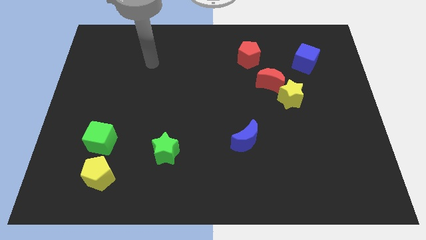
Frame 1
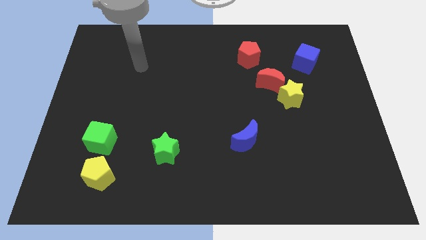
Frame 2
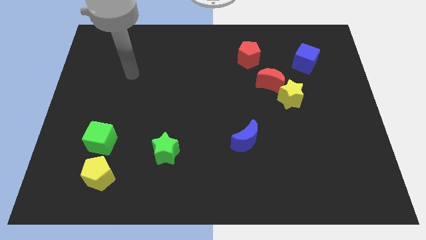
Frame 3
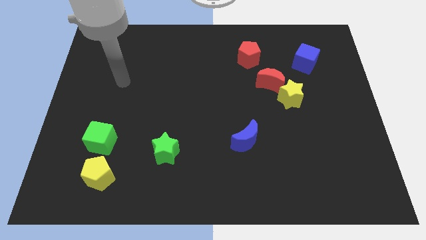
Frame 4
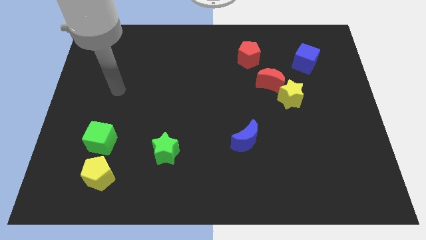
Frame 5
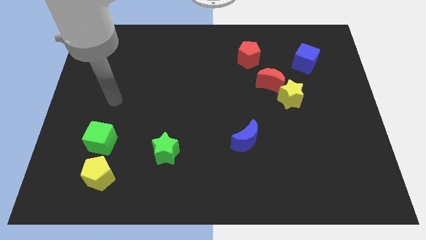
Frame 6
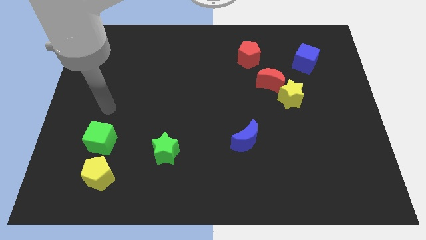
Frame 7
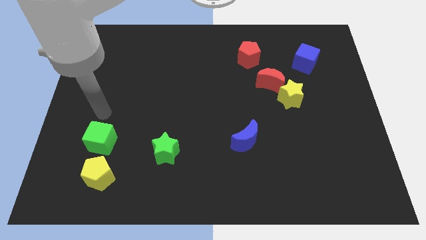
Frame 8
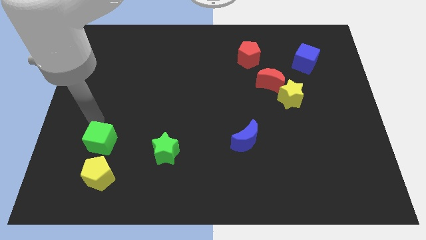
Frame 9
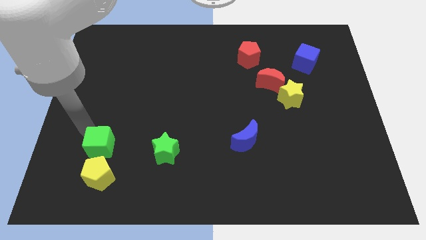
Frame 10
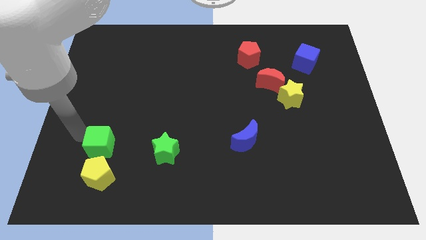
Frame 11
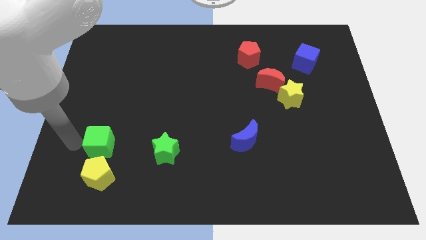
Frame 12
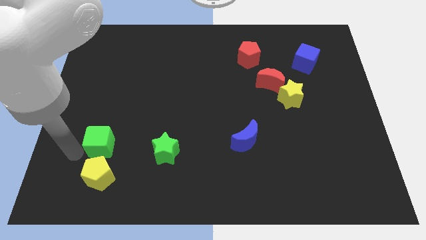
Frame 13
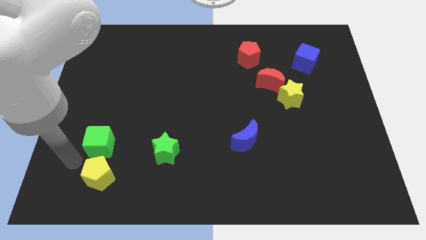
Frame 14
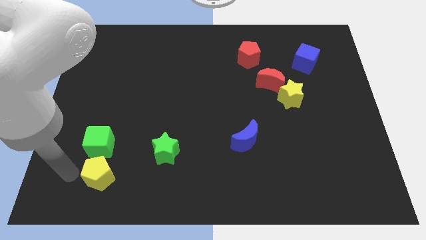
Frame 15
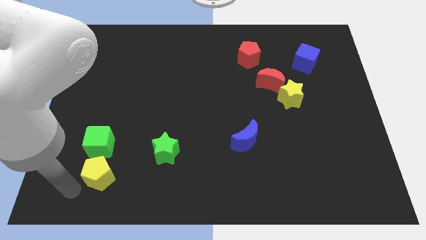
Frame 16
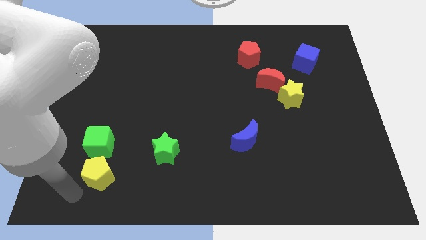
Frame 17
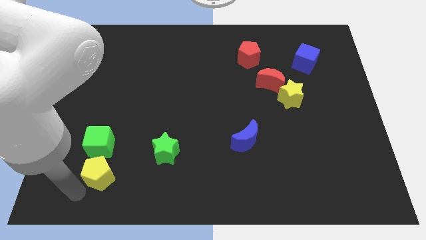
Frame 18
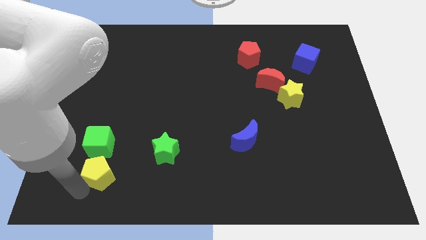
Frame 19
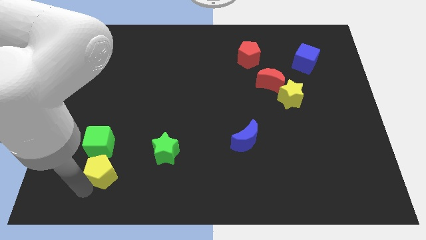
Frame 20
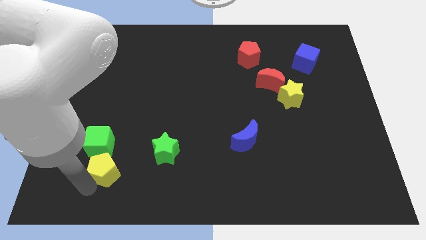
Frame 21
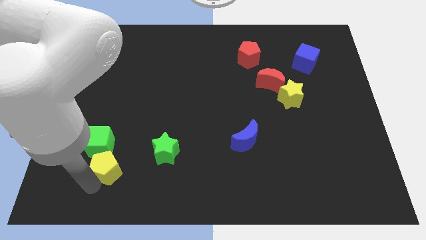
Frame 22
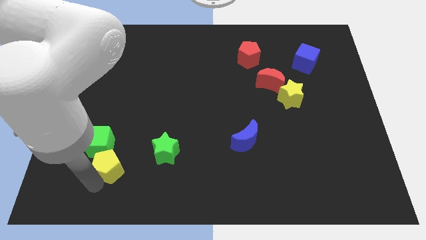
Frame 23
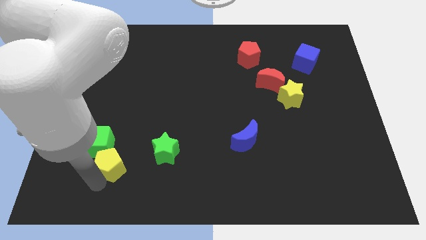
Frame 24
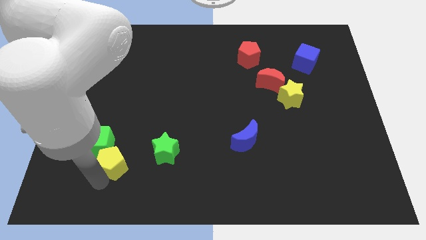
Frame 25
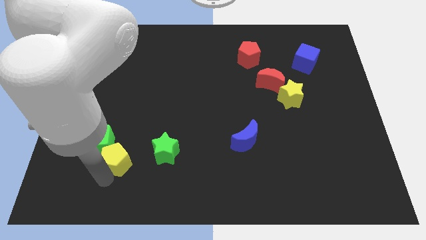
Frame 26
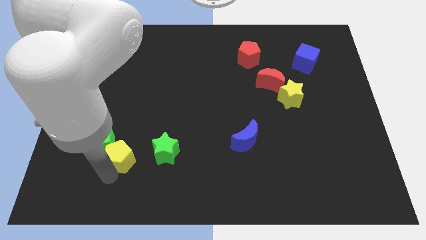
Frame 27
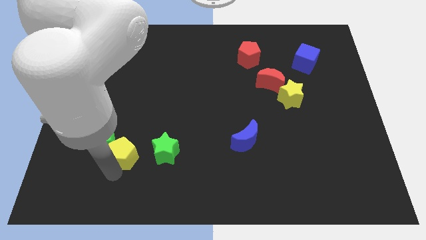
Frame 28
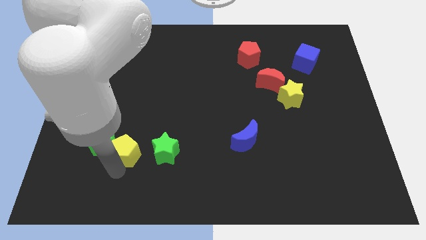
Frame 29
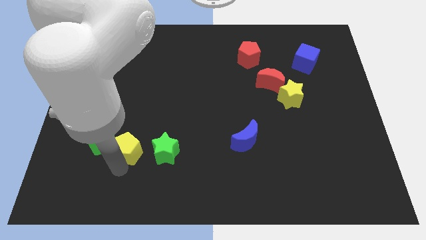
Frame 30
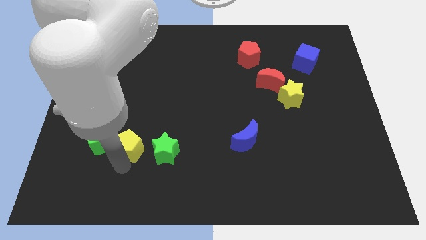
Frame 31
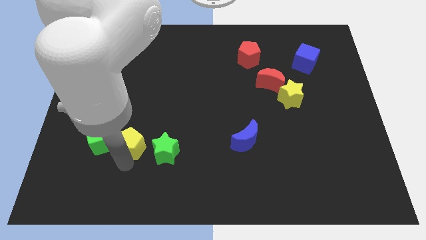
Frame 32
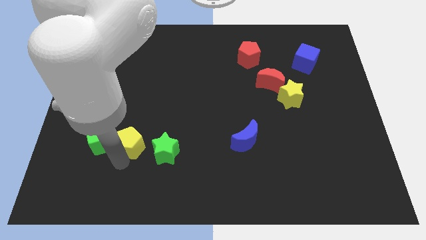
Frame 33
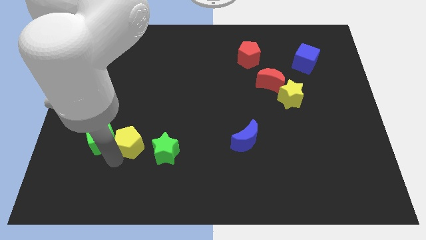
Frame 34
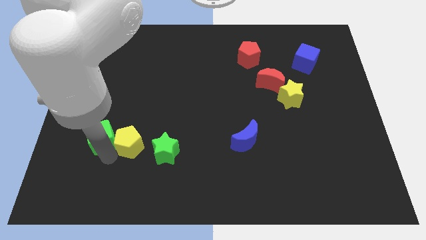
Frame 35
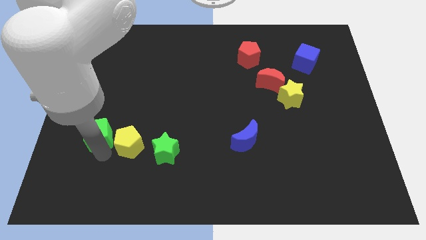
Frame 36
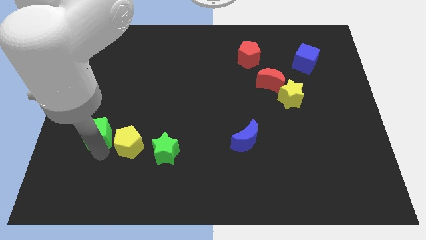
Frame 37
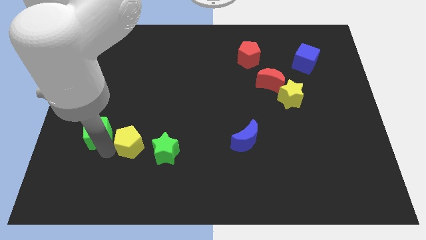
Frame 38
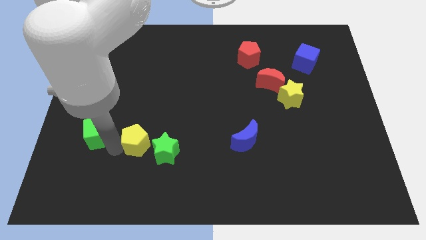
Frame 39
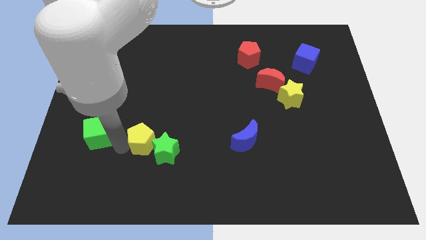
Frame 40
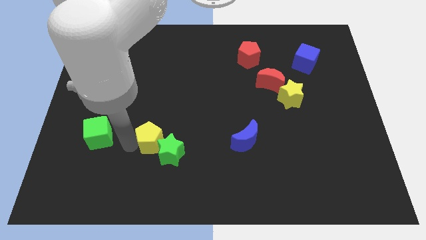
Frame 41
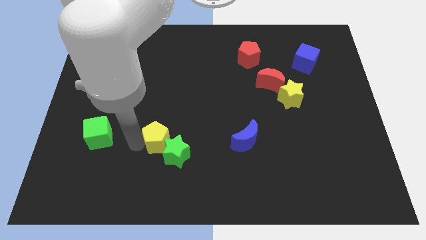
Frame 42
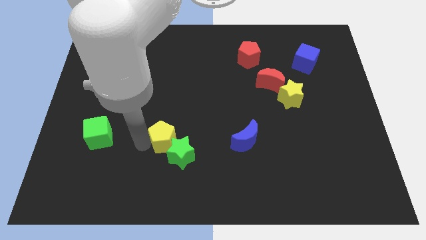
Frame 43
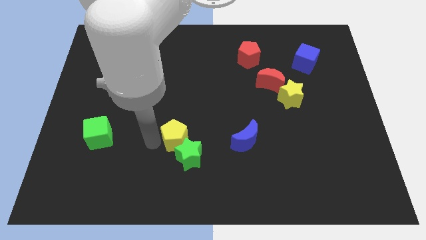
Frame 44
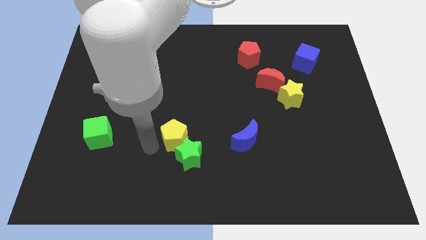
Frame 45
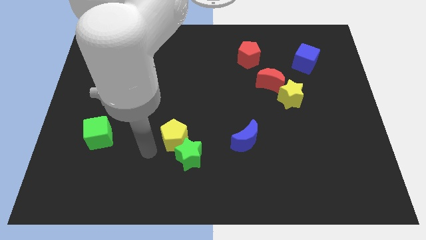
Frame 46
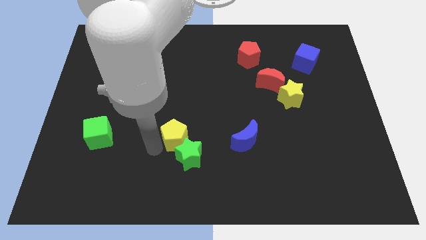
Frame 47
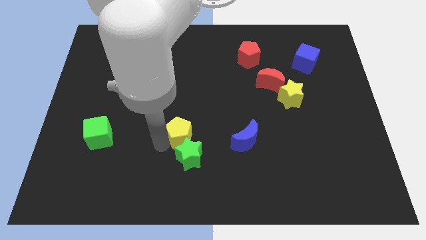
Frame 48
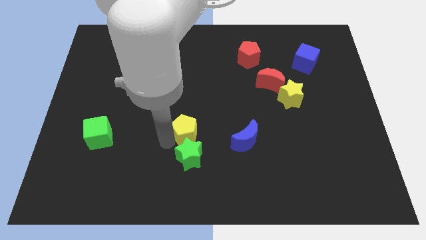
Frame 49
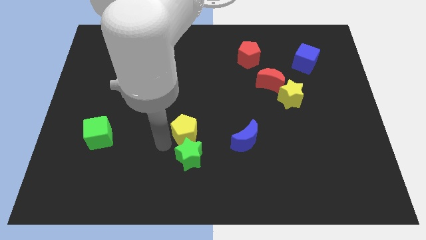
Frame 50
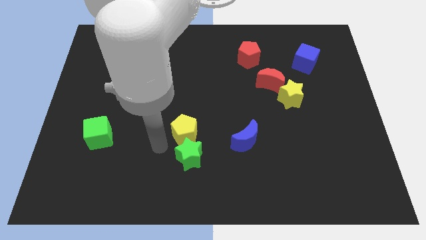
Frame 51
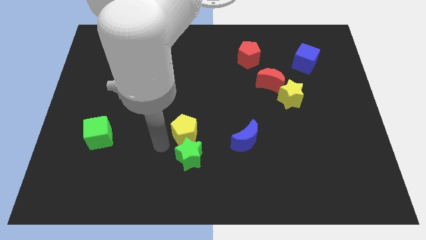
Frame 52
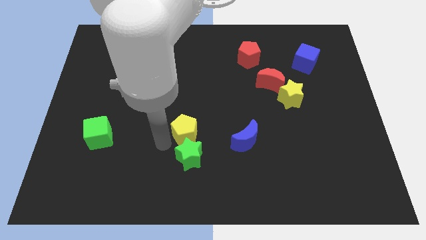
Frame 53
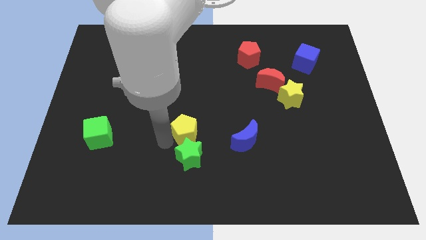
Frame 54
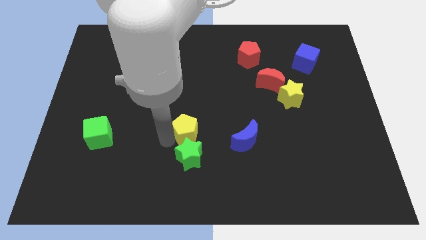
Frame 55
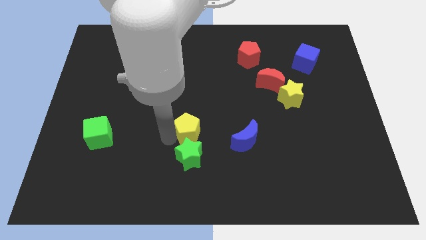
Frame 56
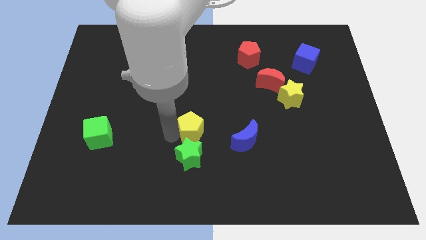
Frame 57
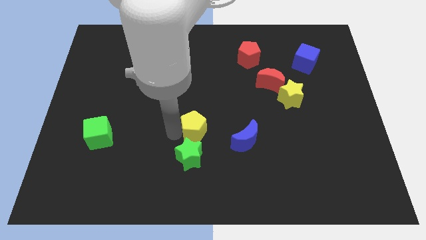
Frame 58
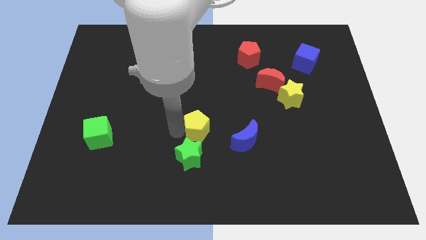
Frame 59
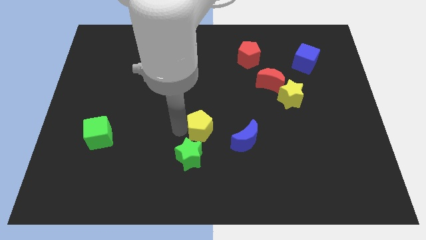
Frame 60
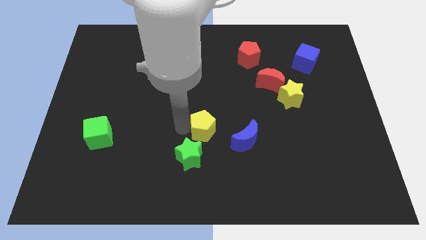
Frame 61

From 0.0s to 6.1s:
put the yellow pentagon diagonally up and to the left of the blue moon
